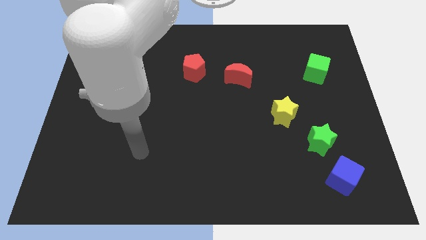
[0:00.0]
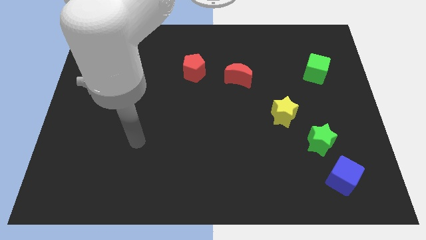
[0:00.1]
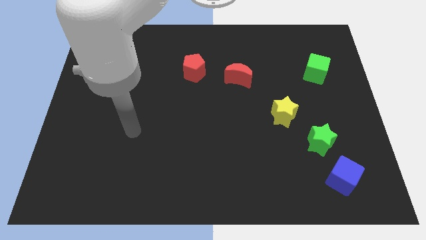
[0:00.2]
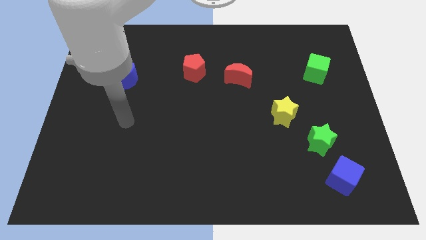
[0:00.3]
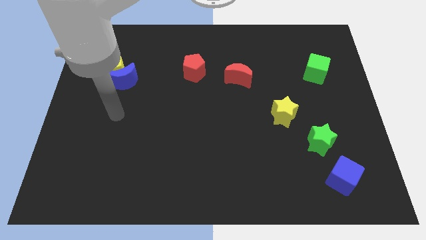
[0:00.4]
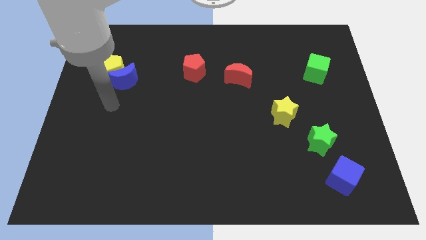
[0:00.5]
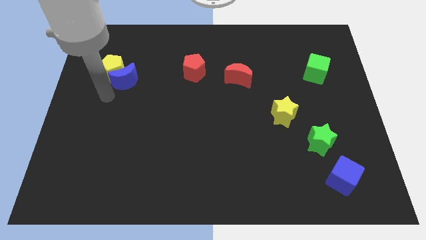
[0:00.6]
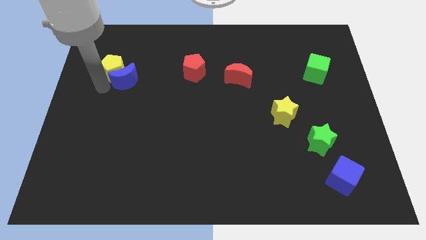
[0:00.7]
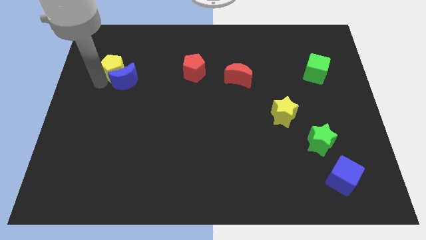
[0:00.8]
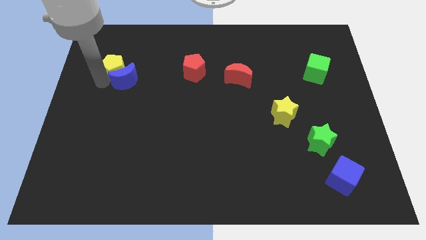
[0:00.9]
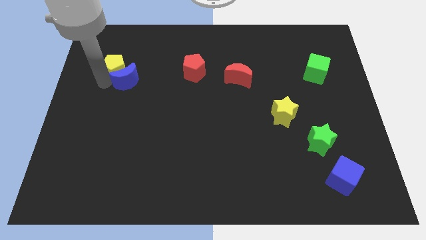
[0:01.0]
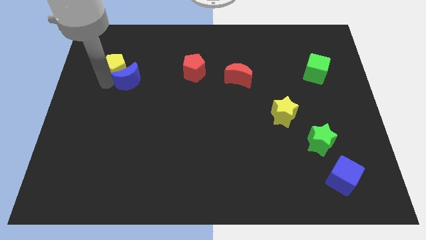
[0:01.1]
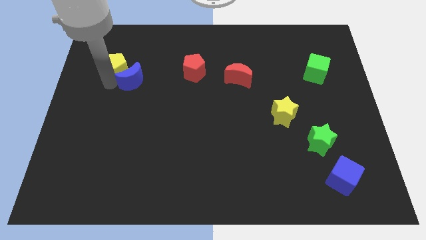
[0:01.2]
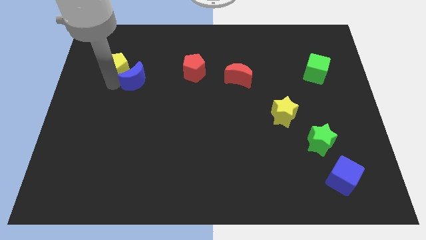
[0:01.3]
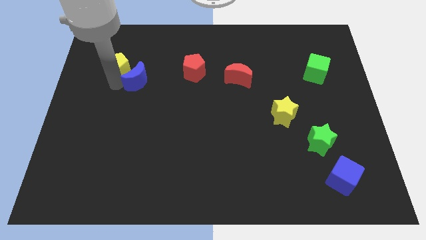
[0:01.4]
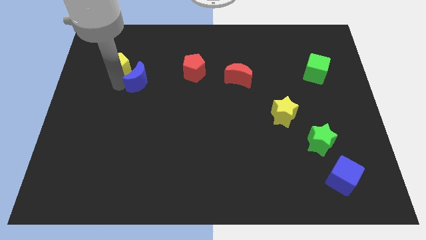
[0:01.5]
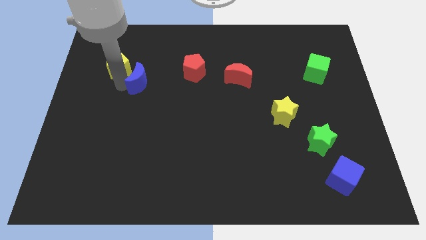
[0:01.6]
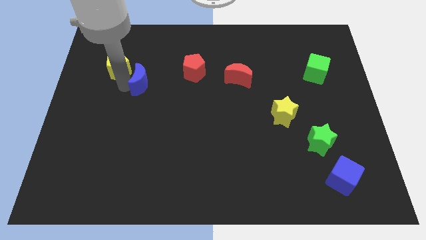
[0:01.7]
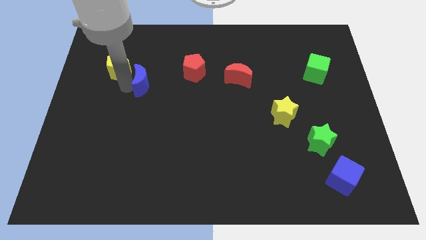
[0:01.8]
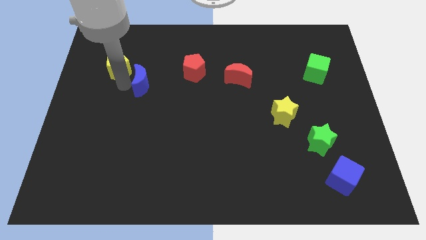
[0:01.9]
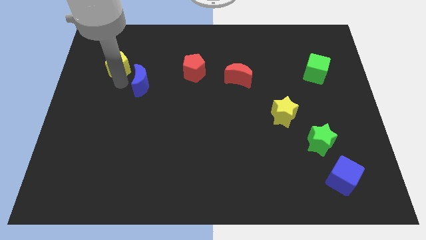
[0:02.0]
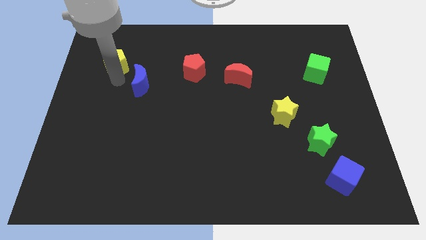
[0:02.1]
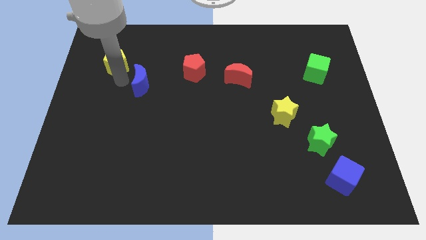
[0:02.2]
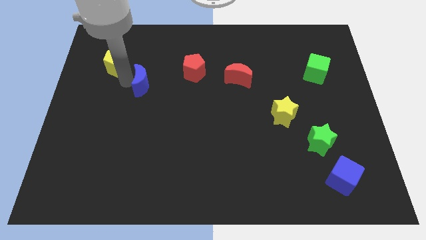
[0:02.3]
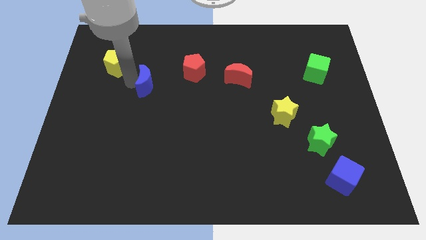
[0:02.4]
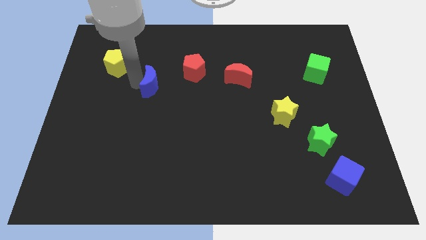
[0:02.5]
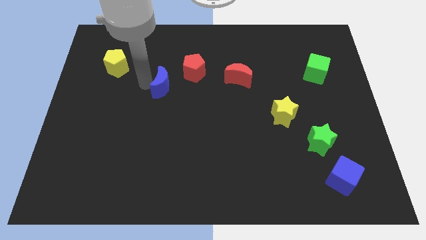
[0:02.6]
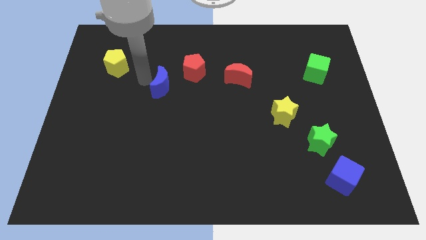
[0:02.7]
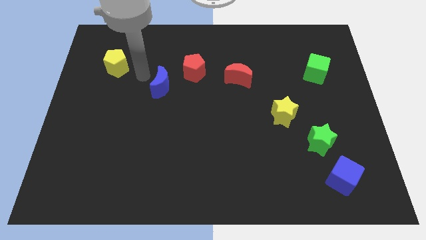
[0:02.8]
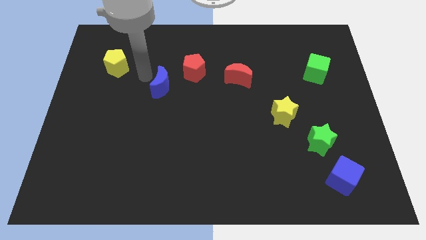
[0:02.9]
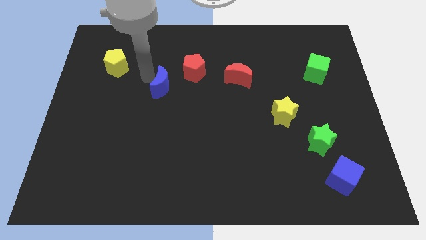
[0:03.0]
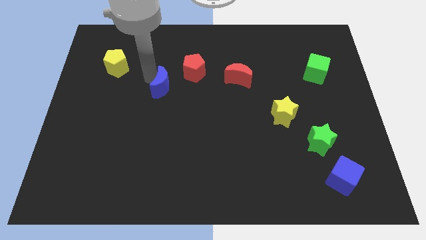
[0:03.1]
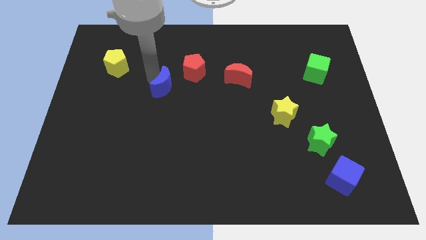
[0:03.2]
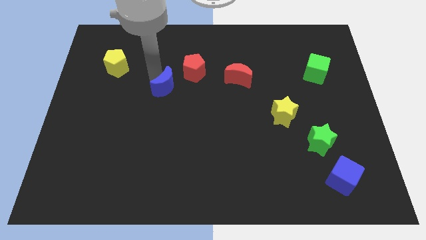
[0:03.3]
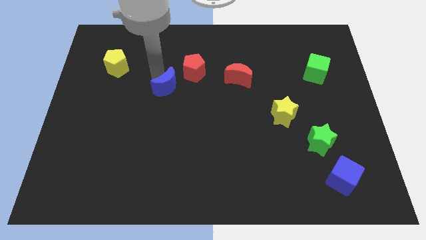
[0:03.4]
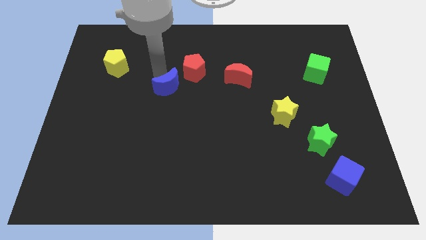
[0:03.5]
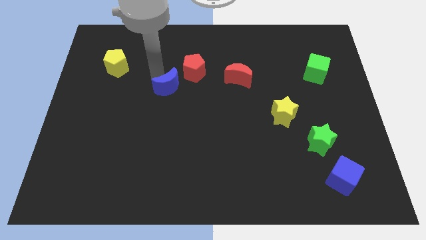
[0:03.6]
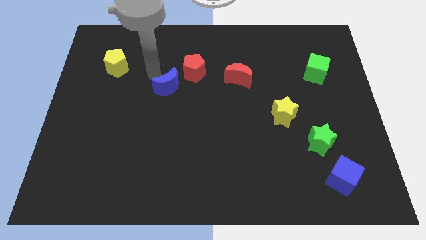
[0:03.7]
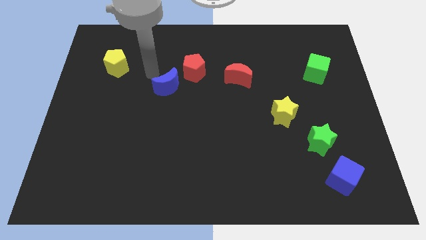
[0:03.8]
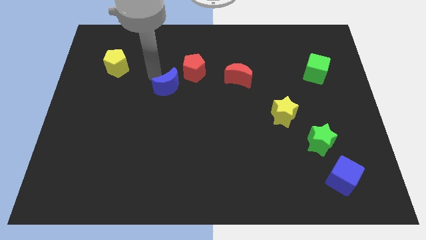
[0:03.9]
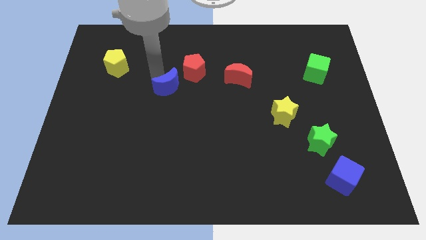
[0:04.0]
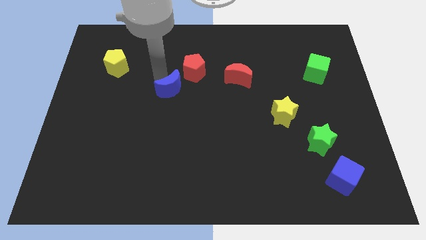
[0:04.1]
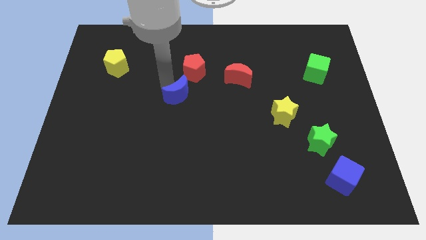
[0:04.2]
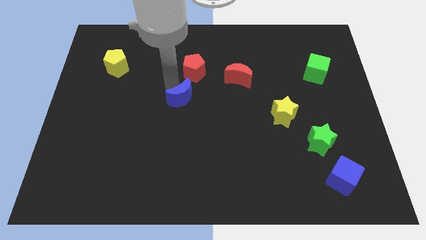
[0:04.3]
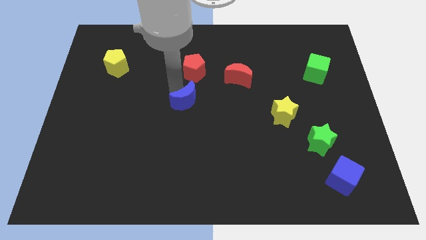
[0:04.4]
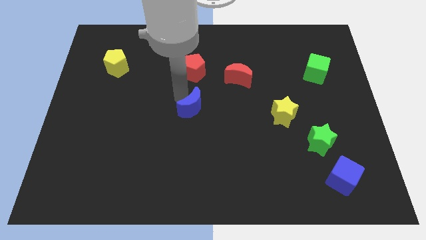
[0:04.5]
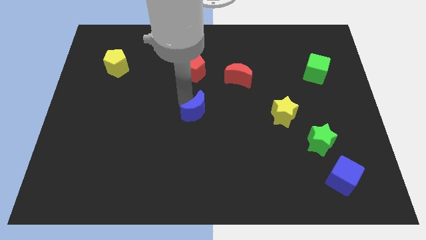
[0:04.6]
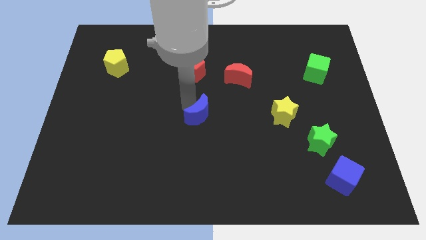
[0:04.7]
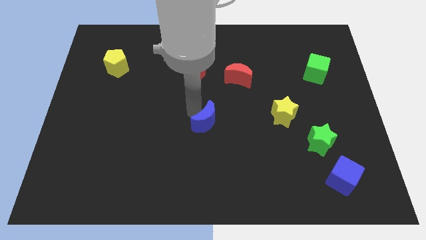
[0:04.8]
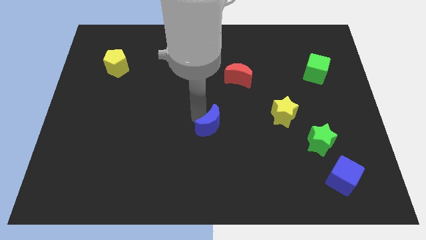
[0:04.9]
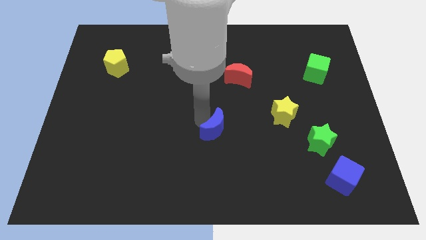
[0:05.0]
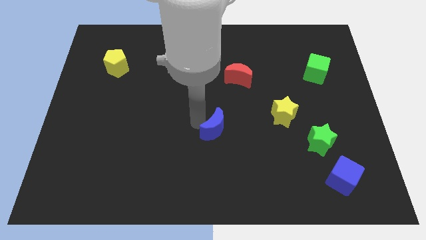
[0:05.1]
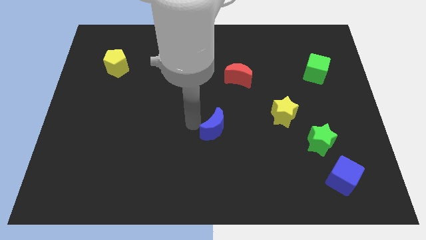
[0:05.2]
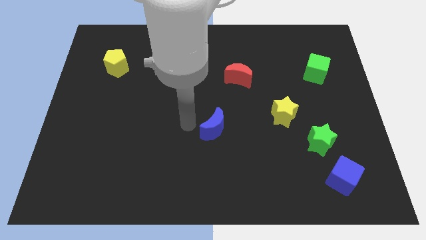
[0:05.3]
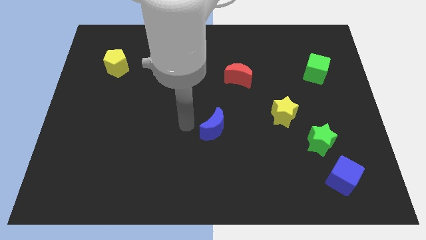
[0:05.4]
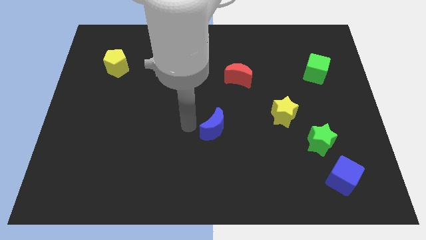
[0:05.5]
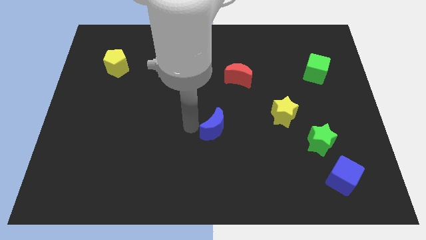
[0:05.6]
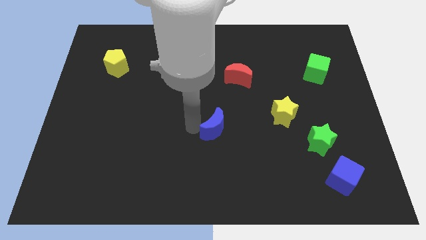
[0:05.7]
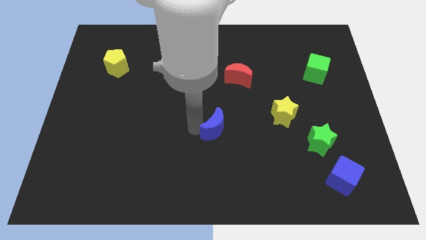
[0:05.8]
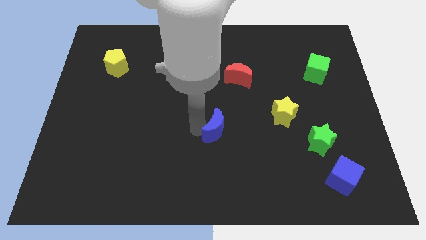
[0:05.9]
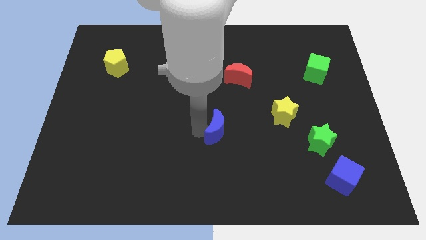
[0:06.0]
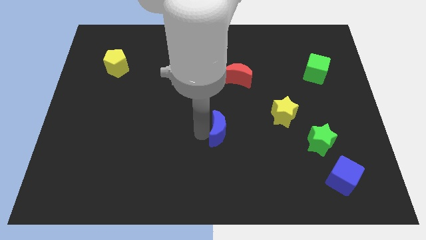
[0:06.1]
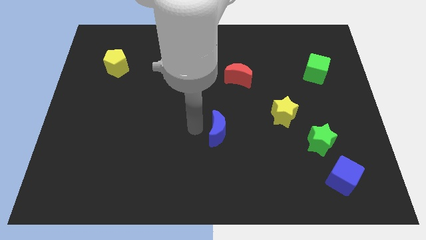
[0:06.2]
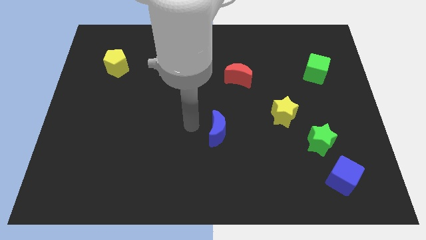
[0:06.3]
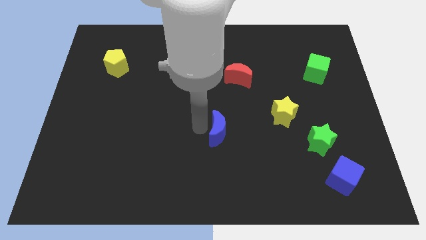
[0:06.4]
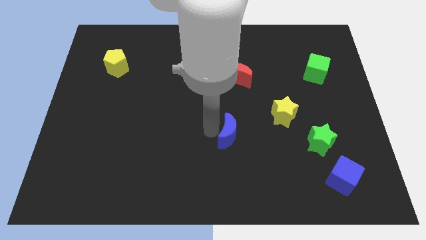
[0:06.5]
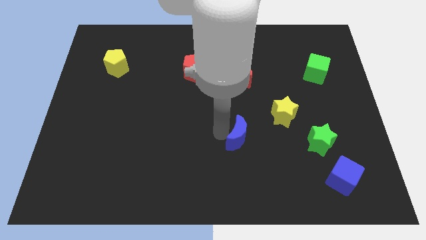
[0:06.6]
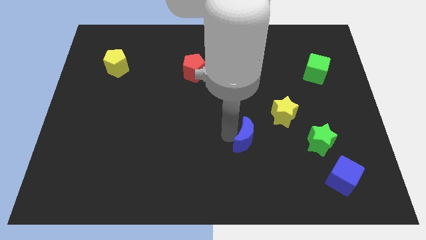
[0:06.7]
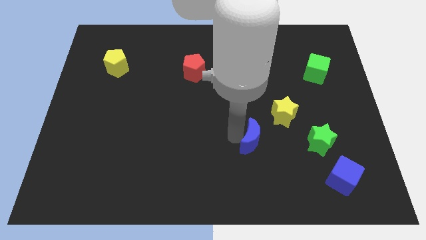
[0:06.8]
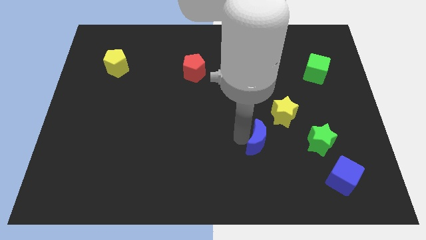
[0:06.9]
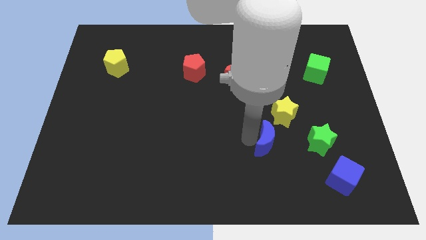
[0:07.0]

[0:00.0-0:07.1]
slide the blue moon to the bottom side of the yellow star
